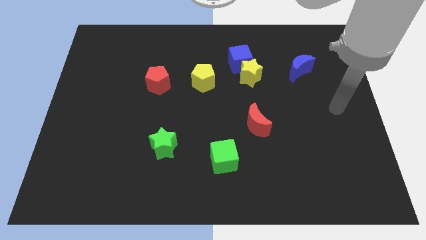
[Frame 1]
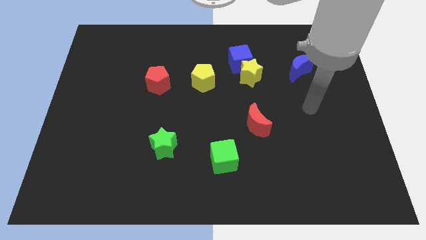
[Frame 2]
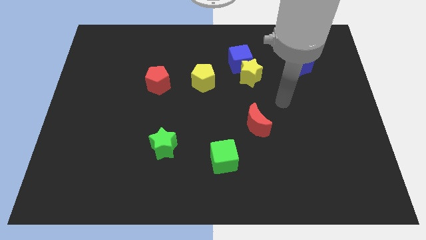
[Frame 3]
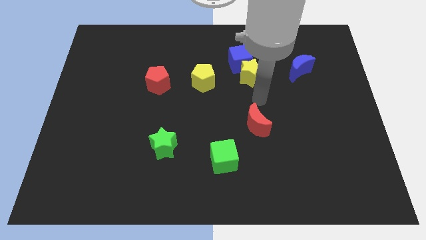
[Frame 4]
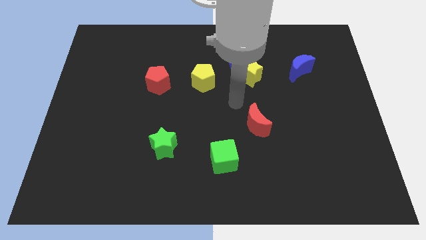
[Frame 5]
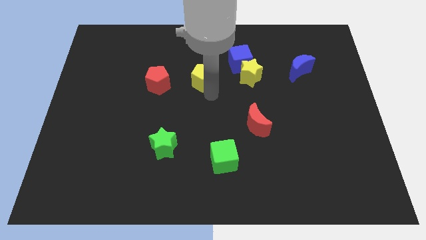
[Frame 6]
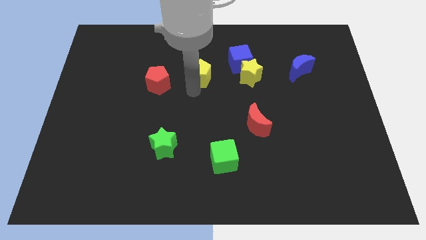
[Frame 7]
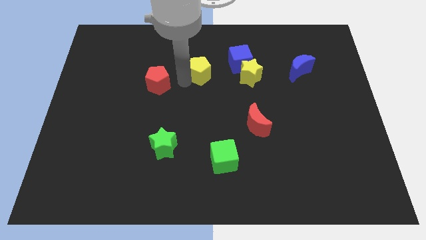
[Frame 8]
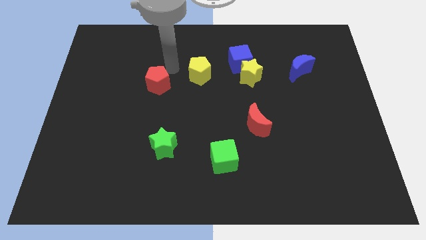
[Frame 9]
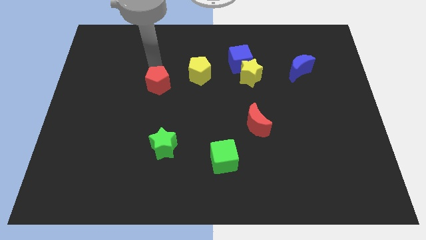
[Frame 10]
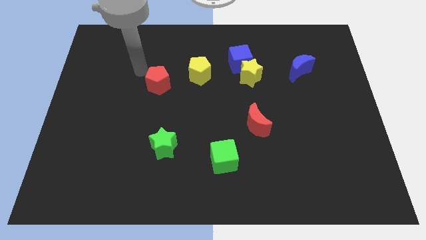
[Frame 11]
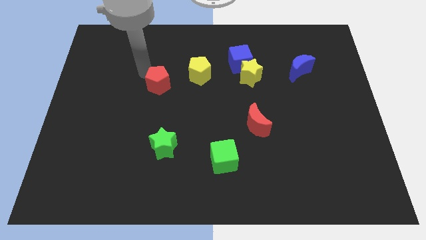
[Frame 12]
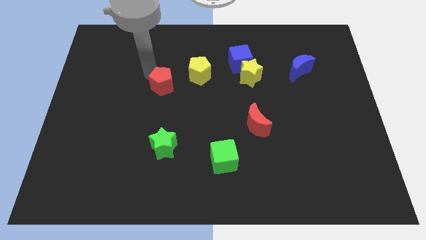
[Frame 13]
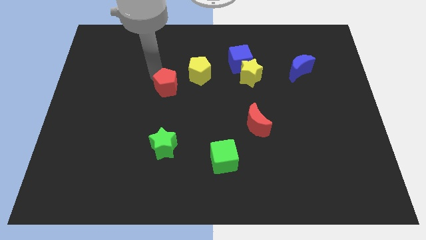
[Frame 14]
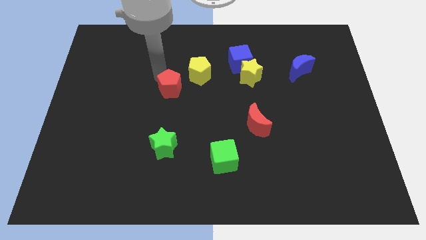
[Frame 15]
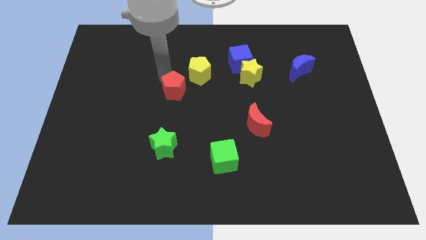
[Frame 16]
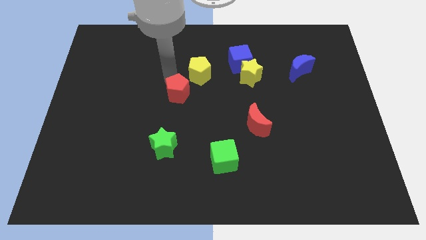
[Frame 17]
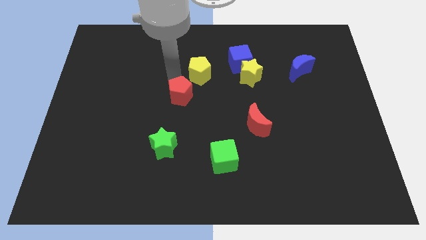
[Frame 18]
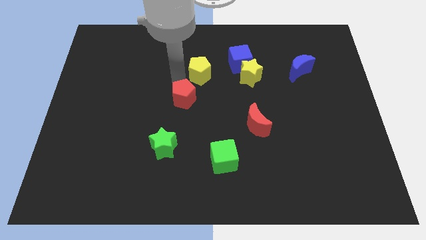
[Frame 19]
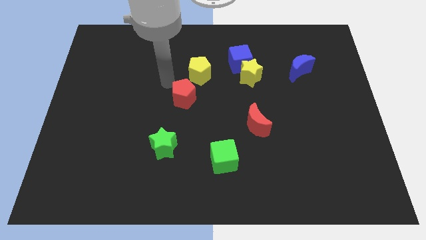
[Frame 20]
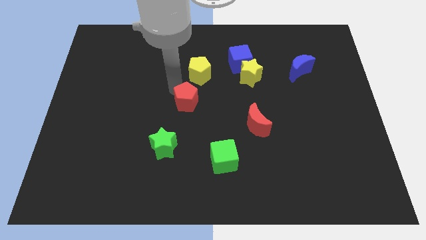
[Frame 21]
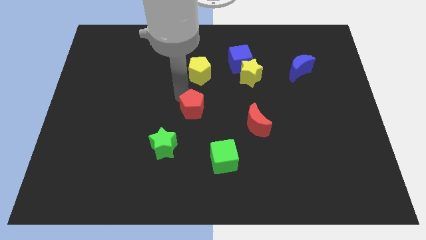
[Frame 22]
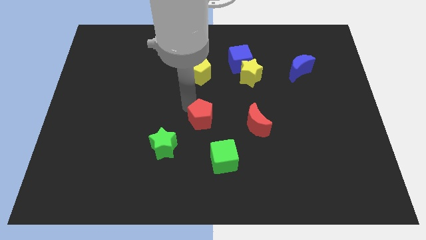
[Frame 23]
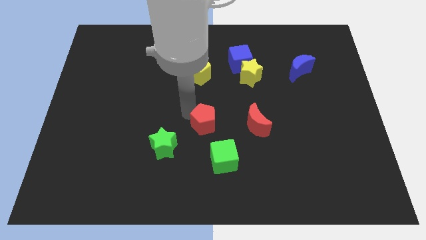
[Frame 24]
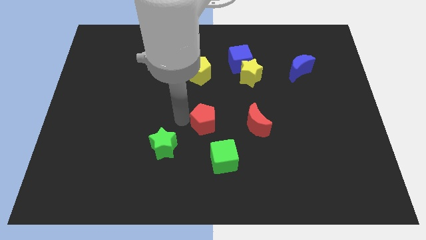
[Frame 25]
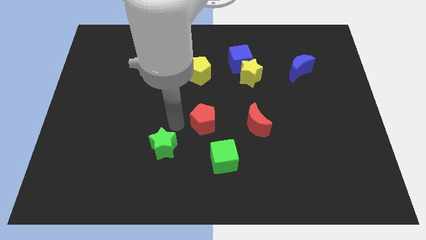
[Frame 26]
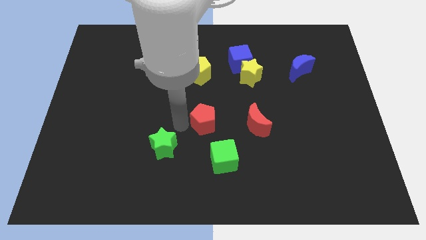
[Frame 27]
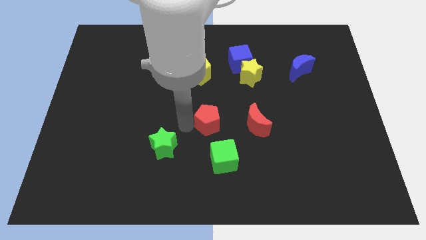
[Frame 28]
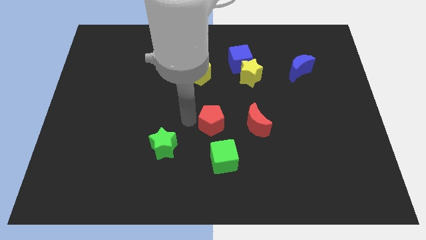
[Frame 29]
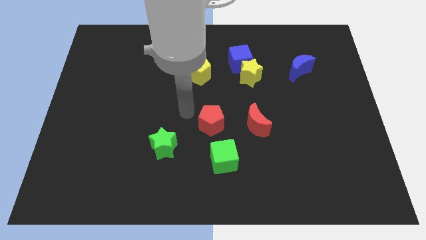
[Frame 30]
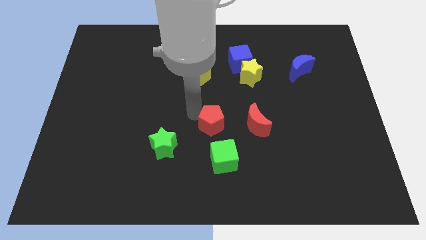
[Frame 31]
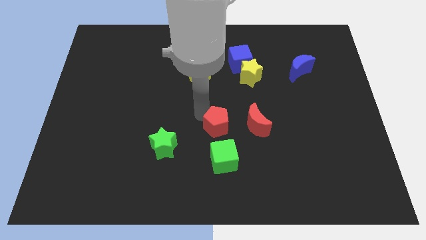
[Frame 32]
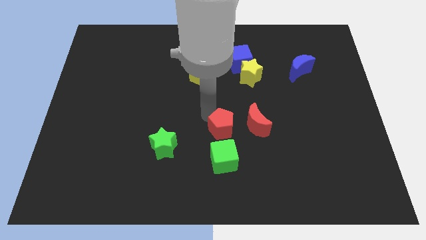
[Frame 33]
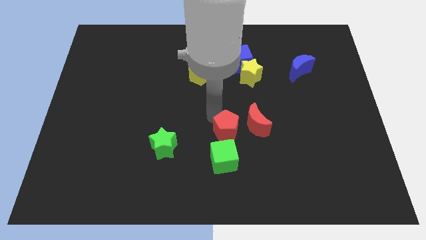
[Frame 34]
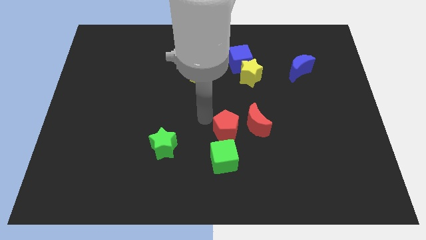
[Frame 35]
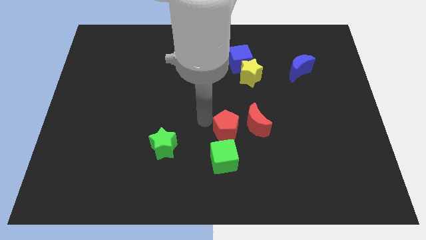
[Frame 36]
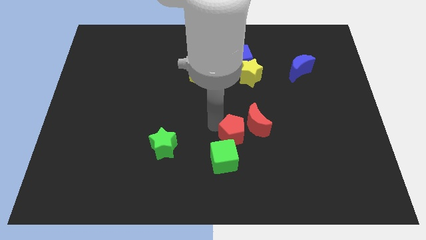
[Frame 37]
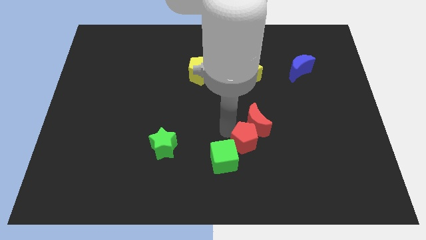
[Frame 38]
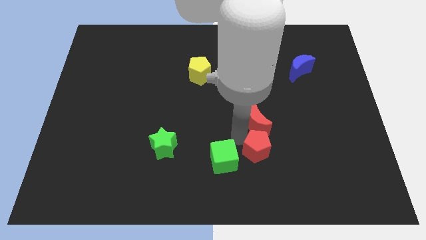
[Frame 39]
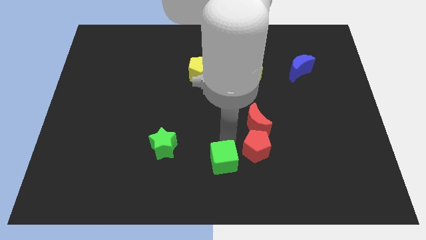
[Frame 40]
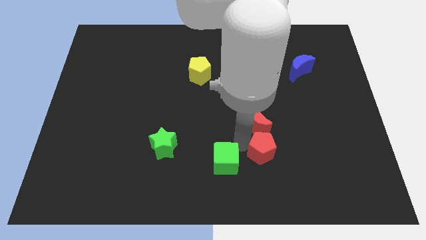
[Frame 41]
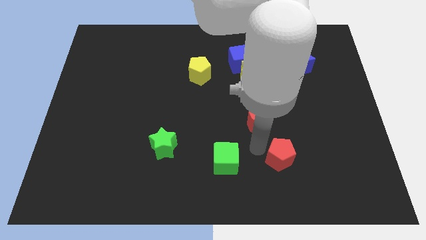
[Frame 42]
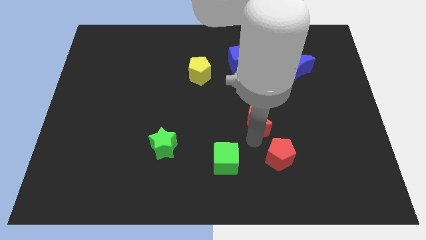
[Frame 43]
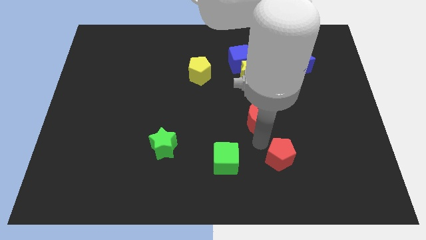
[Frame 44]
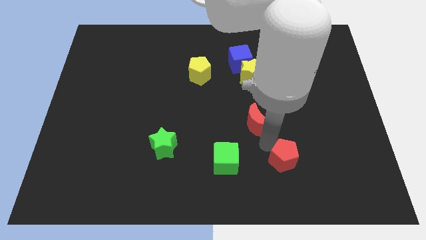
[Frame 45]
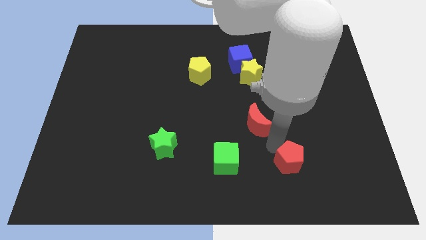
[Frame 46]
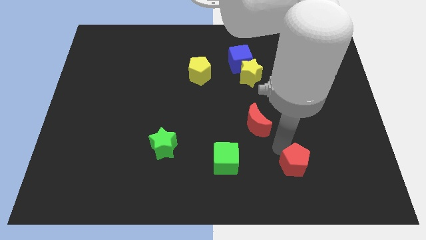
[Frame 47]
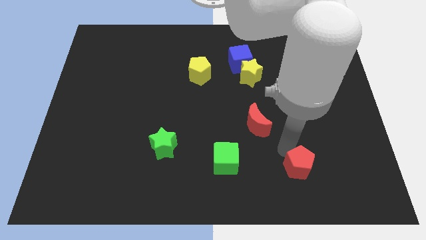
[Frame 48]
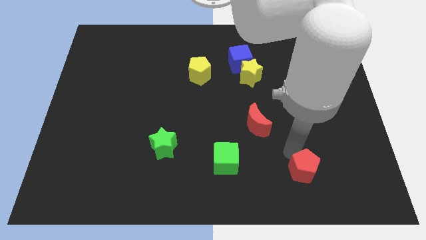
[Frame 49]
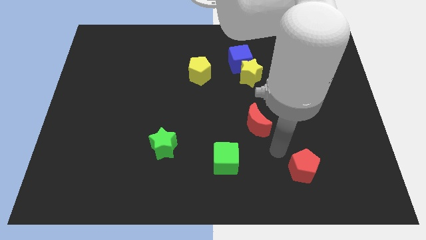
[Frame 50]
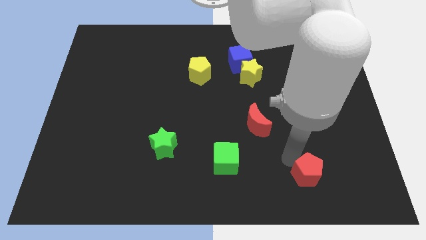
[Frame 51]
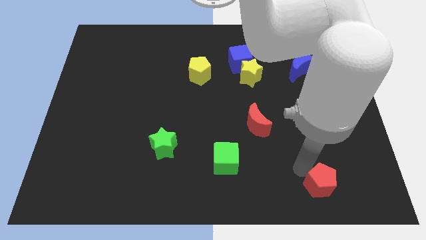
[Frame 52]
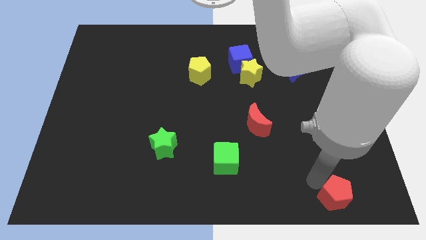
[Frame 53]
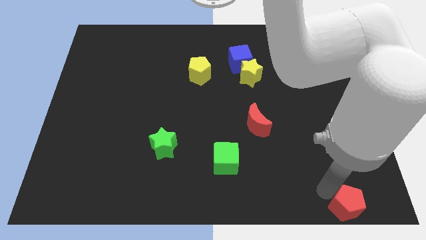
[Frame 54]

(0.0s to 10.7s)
push the red pentagon to the bottom right of the board
